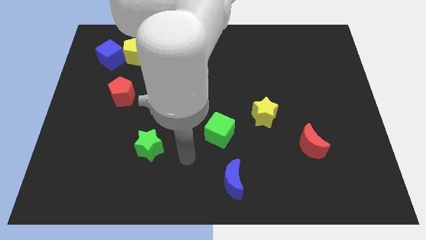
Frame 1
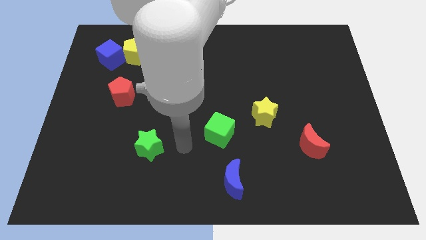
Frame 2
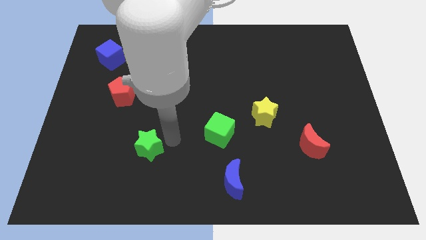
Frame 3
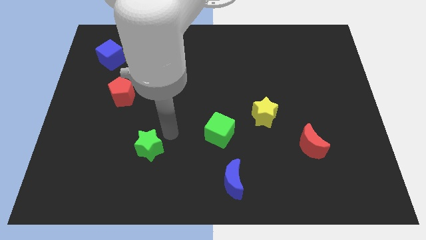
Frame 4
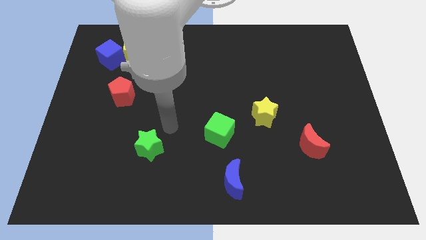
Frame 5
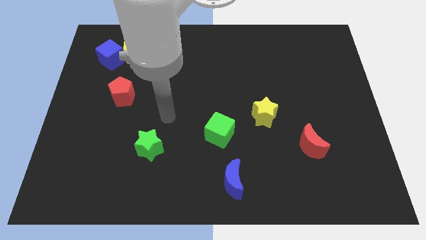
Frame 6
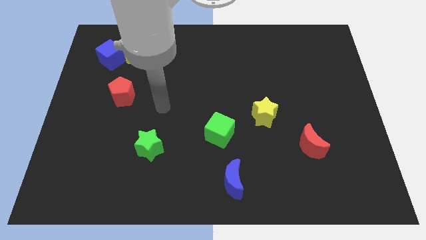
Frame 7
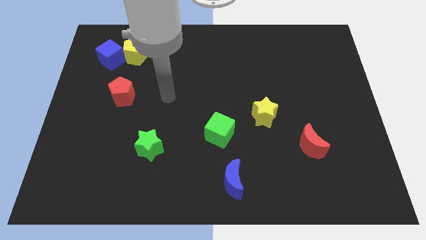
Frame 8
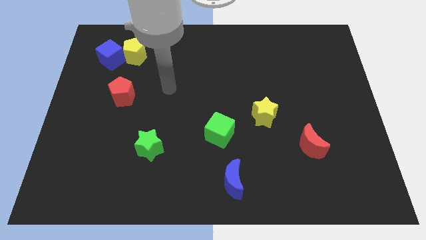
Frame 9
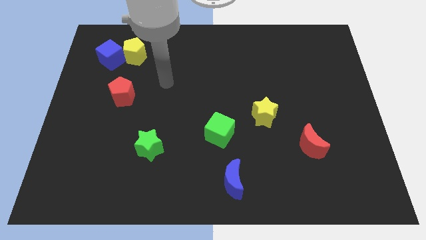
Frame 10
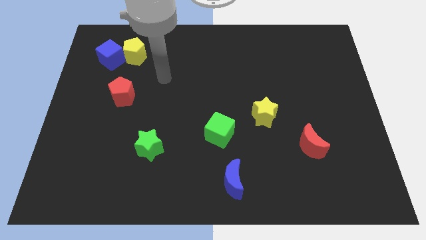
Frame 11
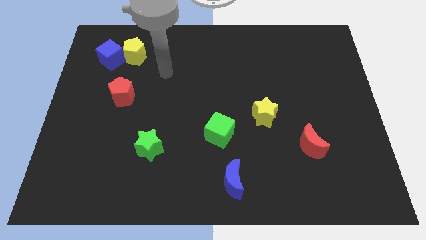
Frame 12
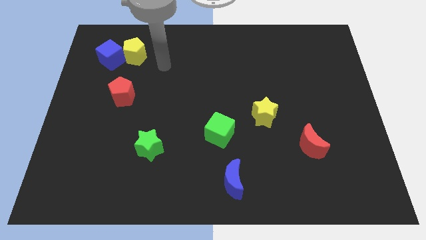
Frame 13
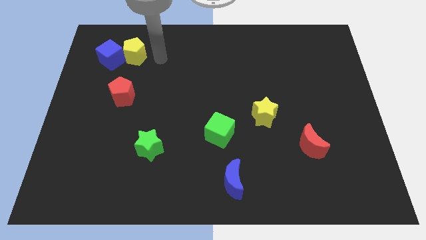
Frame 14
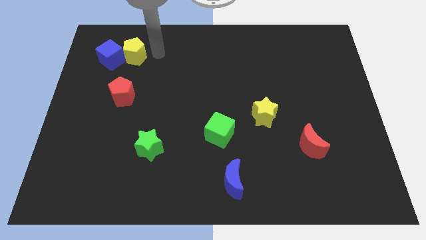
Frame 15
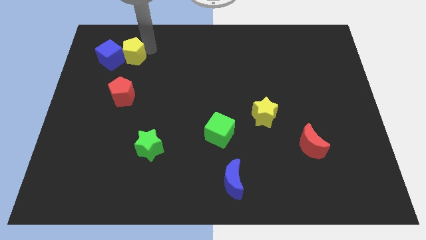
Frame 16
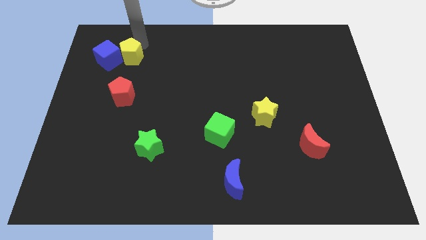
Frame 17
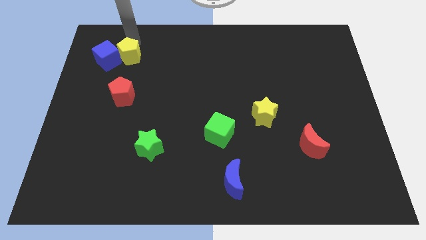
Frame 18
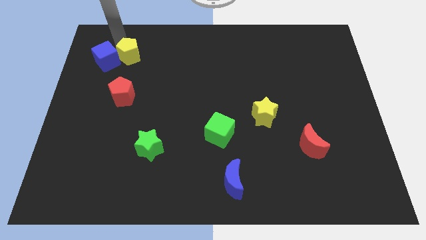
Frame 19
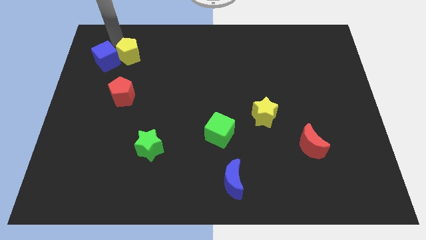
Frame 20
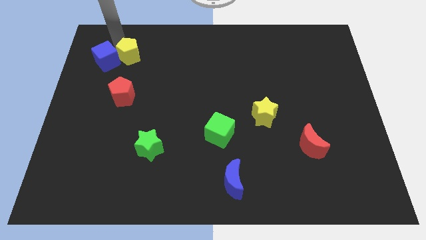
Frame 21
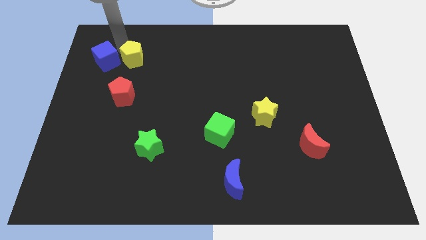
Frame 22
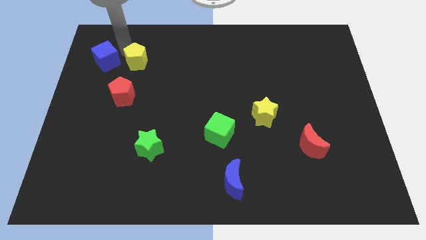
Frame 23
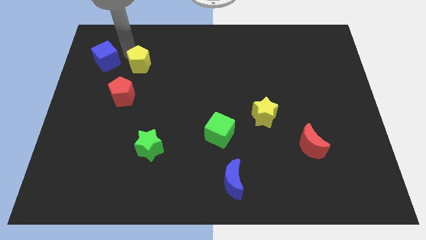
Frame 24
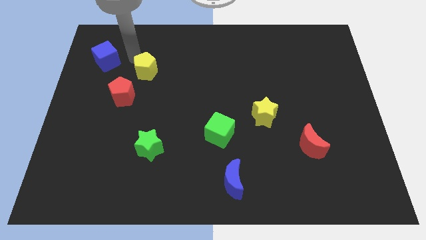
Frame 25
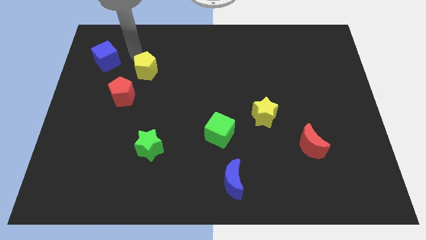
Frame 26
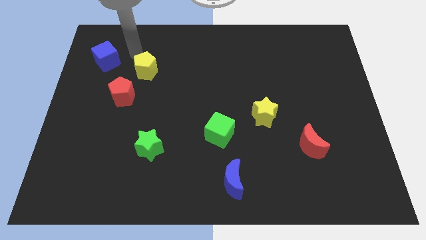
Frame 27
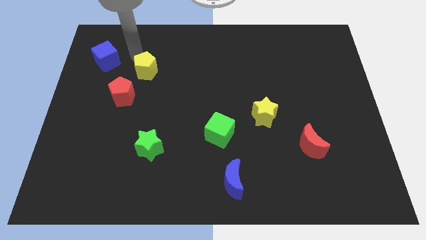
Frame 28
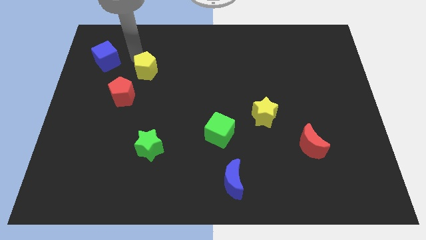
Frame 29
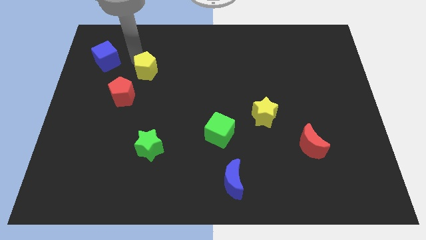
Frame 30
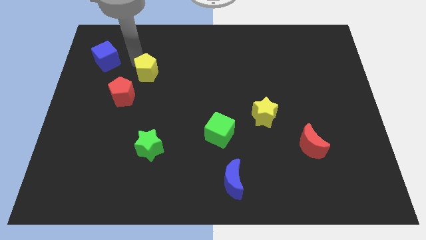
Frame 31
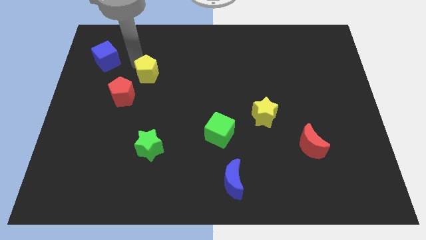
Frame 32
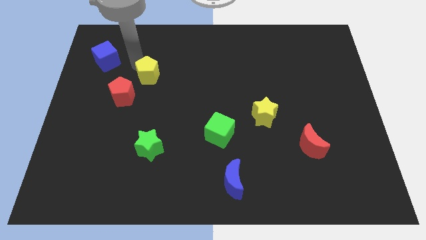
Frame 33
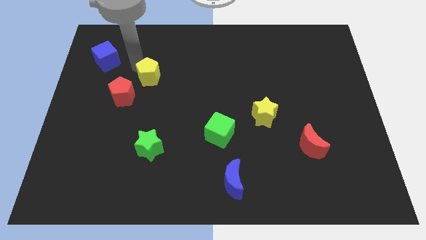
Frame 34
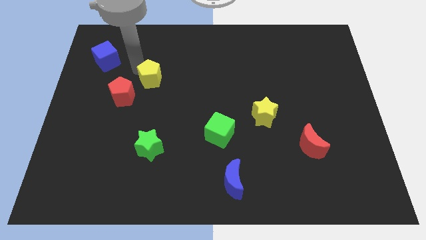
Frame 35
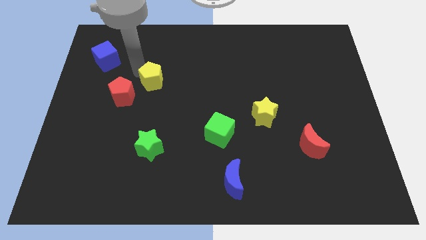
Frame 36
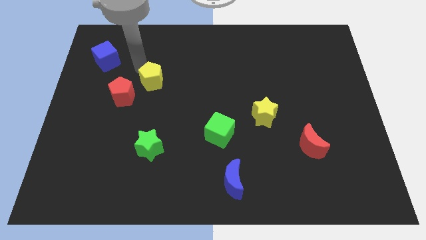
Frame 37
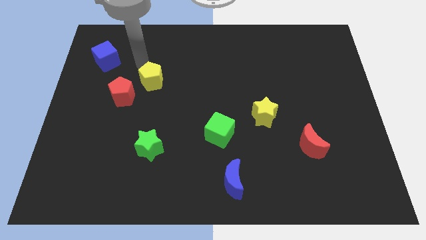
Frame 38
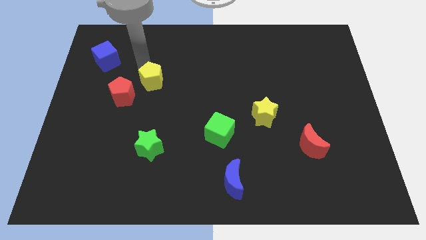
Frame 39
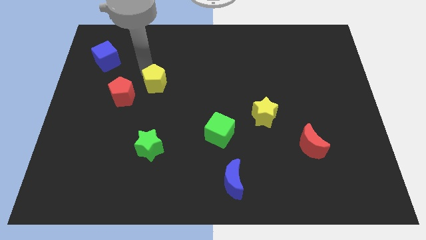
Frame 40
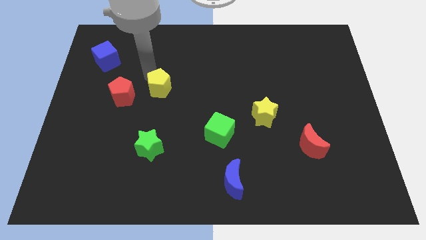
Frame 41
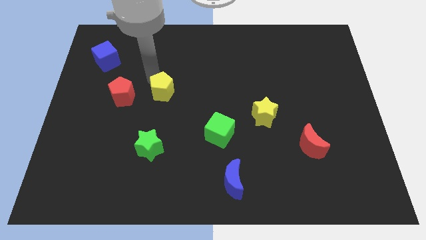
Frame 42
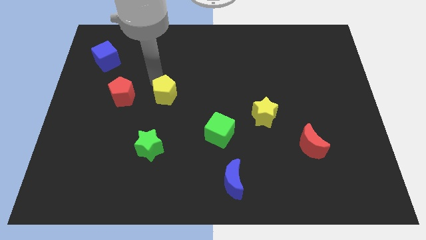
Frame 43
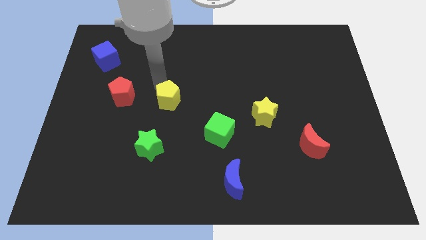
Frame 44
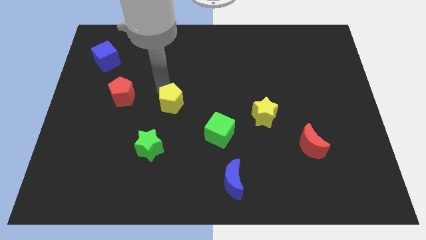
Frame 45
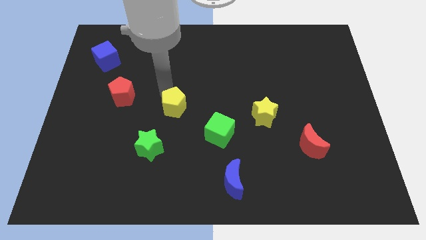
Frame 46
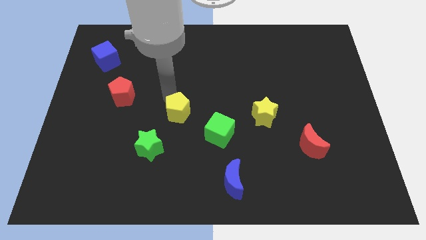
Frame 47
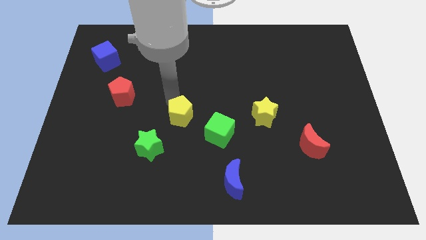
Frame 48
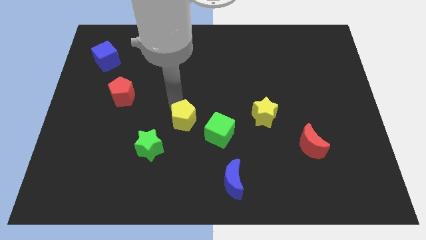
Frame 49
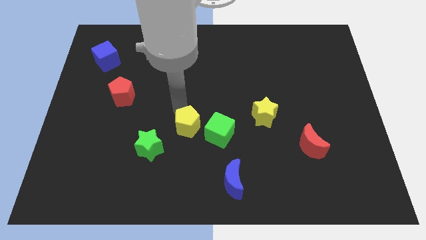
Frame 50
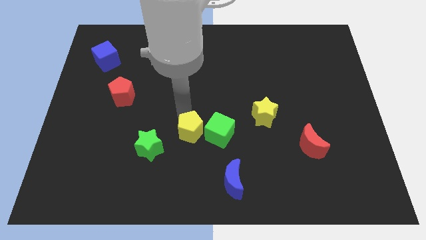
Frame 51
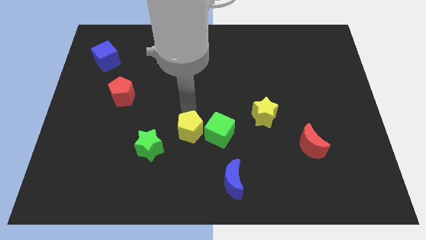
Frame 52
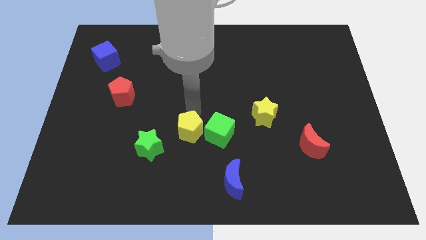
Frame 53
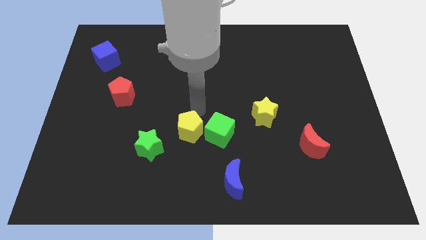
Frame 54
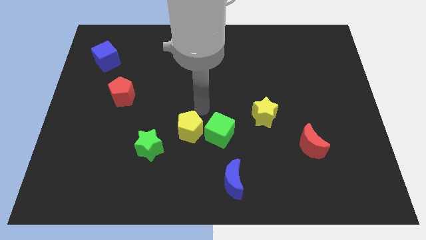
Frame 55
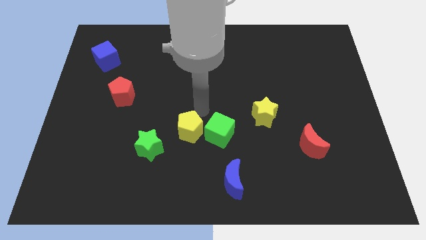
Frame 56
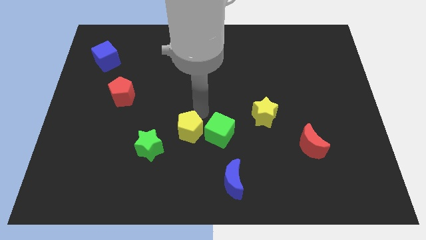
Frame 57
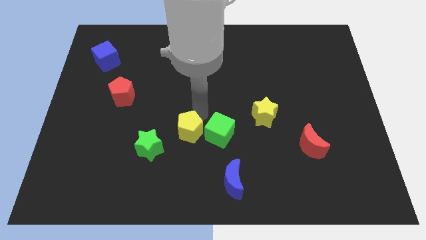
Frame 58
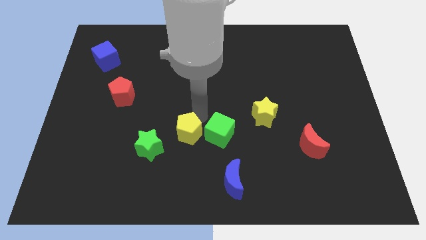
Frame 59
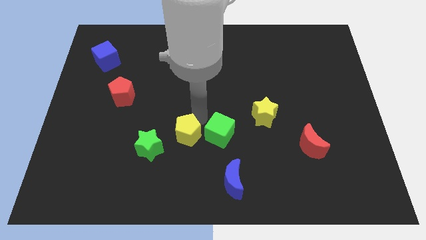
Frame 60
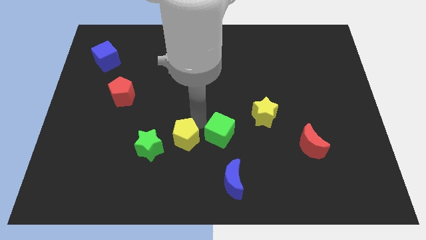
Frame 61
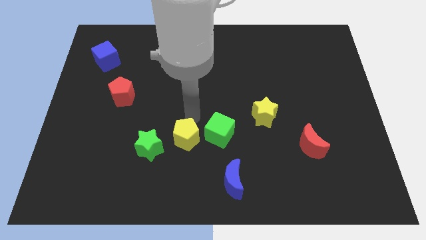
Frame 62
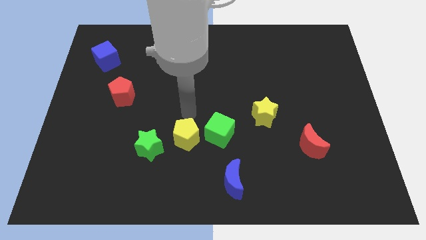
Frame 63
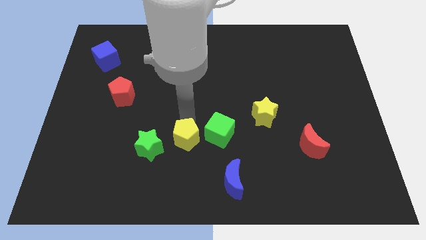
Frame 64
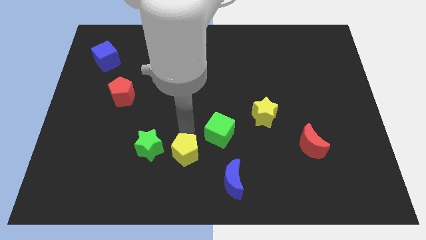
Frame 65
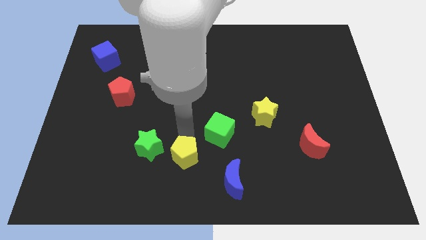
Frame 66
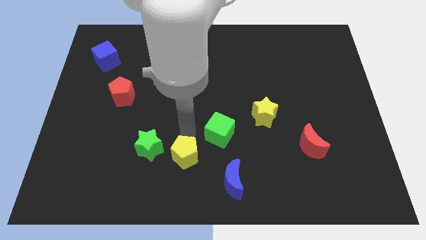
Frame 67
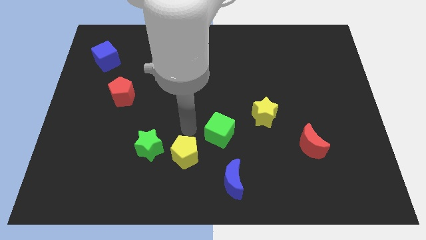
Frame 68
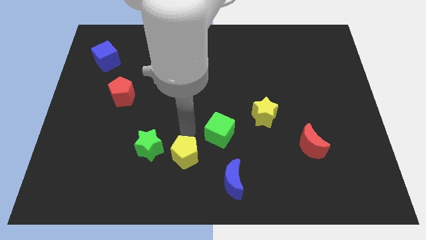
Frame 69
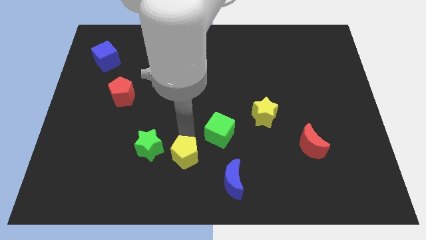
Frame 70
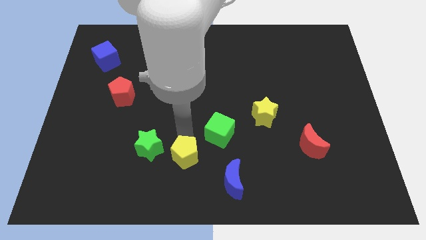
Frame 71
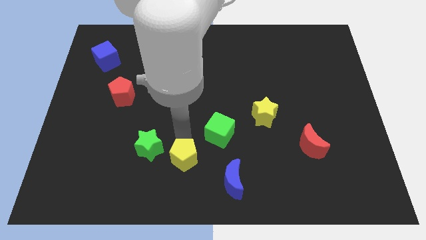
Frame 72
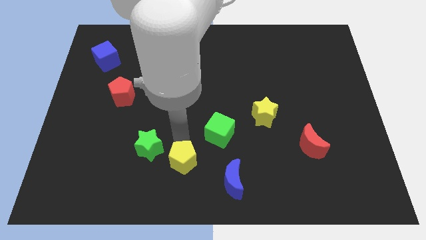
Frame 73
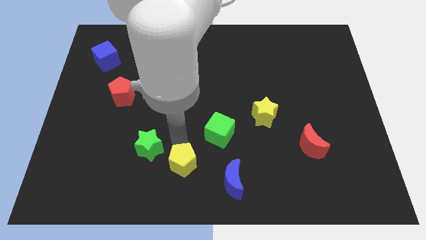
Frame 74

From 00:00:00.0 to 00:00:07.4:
move the yellow pentagon to the left of the blue moon
